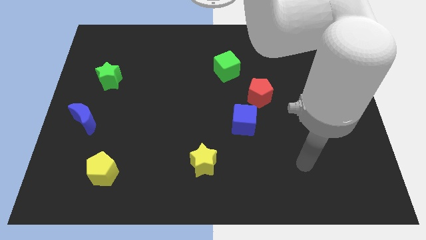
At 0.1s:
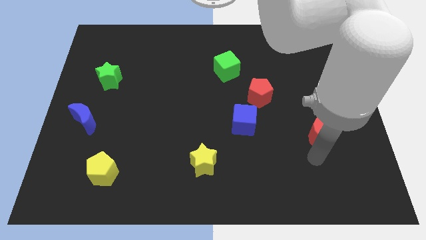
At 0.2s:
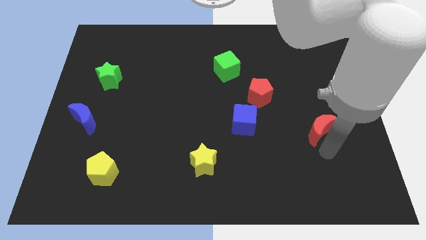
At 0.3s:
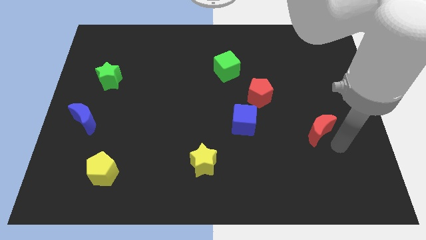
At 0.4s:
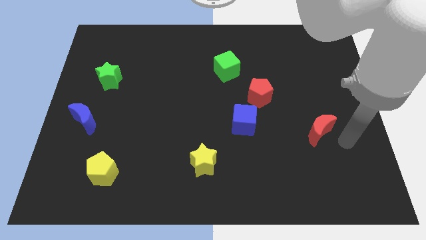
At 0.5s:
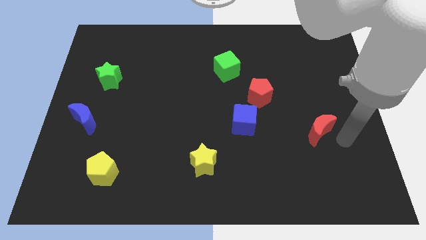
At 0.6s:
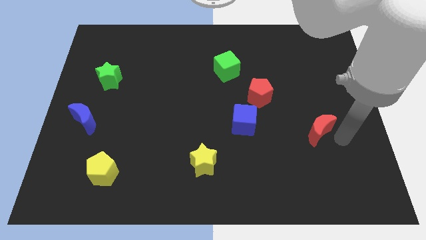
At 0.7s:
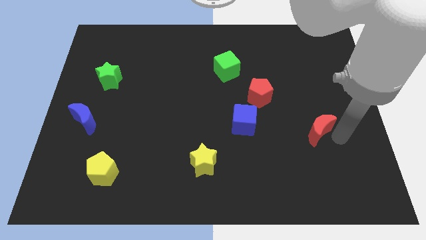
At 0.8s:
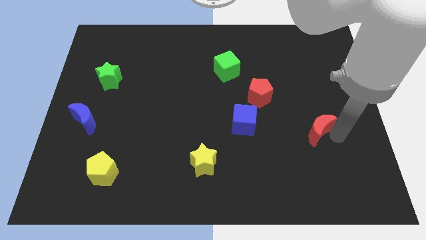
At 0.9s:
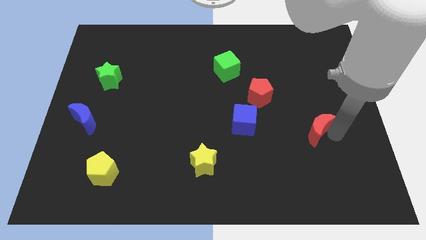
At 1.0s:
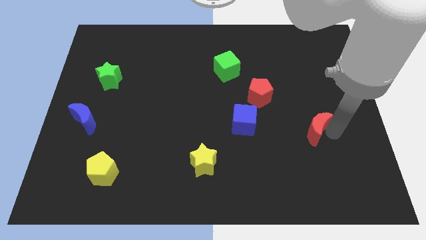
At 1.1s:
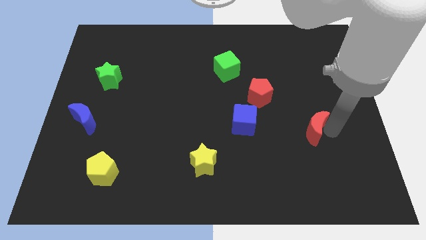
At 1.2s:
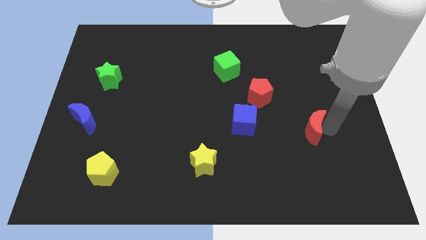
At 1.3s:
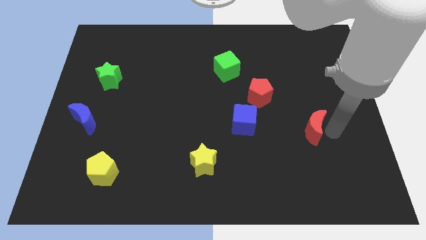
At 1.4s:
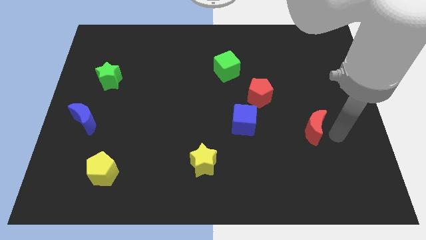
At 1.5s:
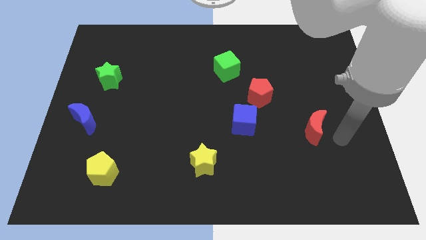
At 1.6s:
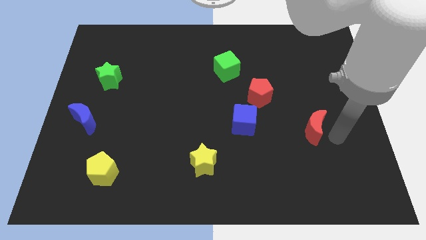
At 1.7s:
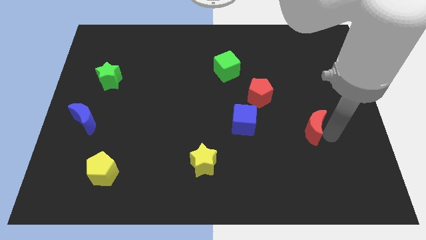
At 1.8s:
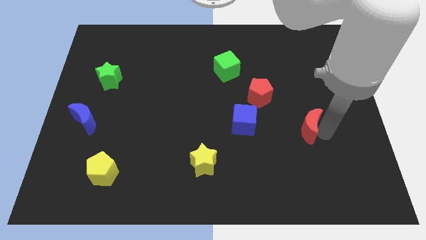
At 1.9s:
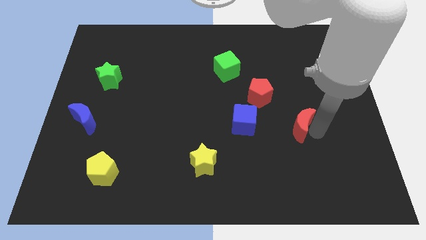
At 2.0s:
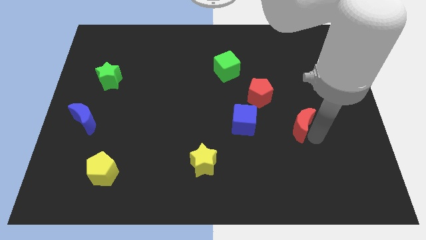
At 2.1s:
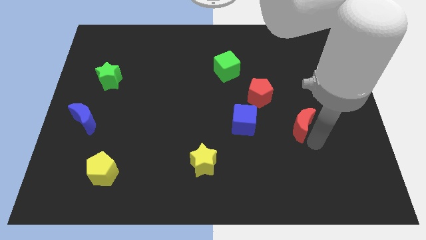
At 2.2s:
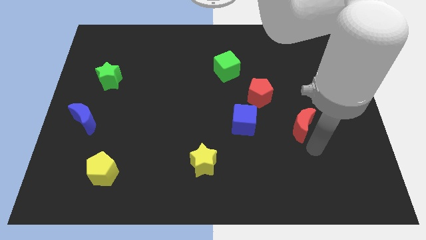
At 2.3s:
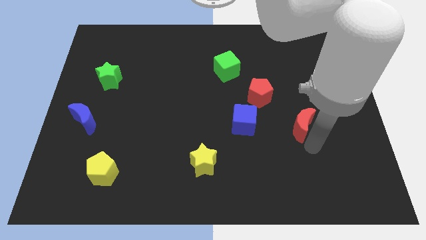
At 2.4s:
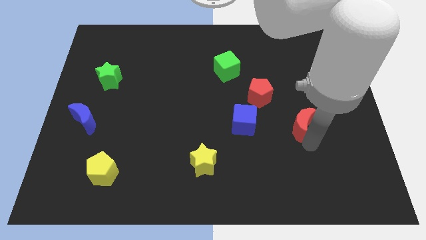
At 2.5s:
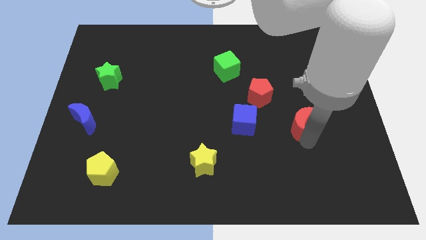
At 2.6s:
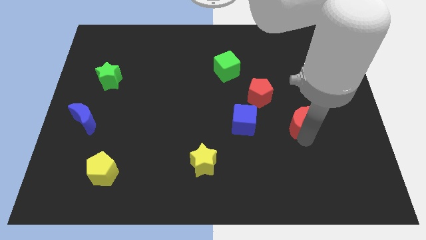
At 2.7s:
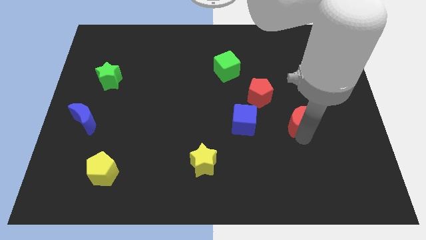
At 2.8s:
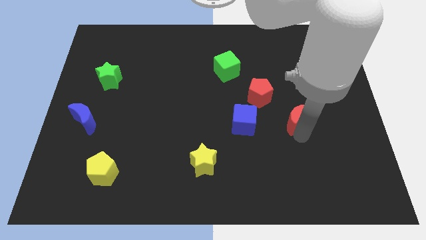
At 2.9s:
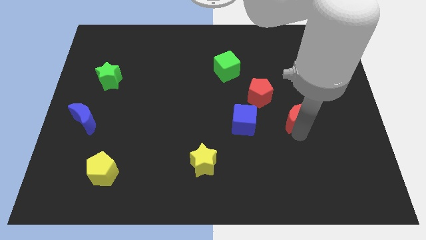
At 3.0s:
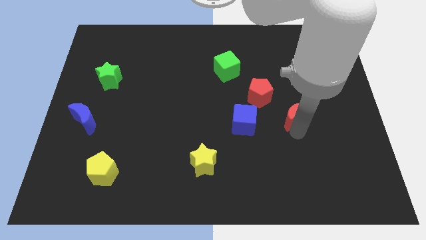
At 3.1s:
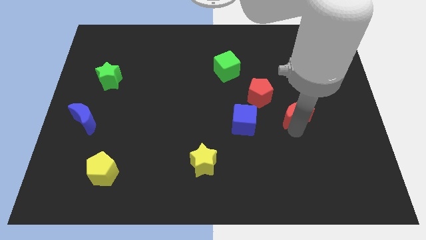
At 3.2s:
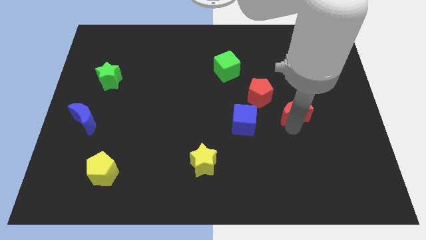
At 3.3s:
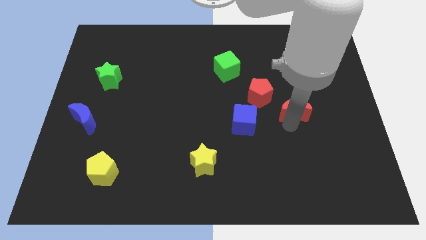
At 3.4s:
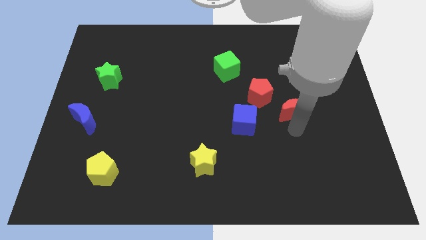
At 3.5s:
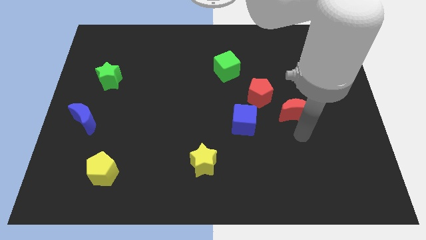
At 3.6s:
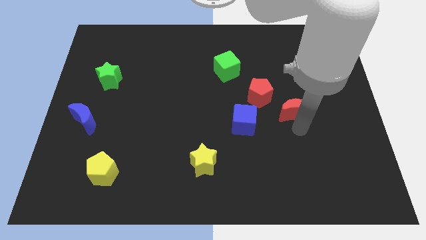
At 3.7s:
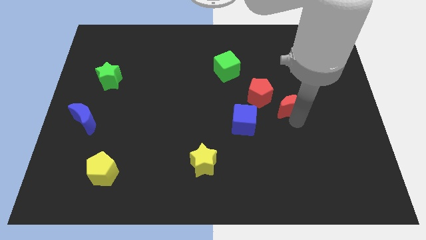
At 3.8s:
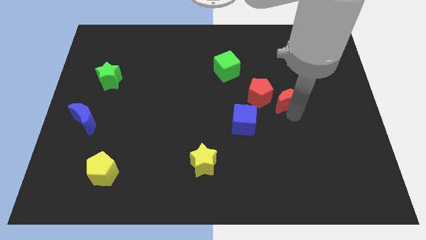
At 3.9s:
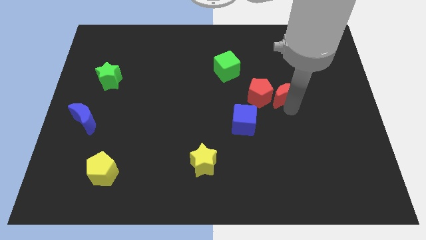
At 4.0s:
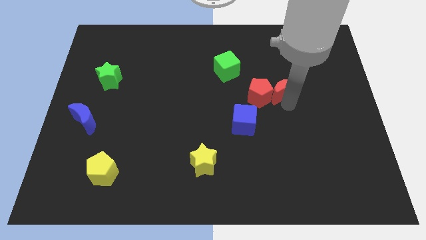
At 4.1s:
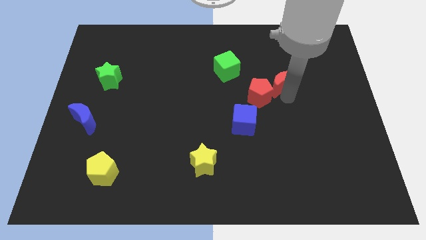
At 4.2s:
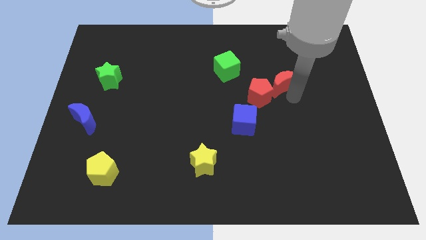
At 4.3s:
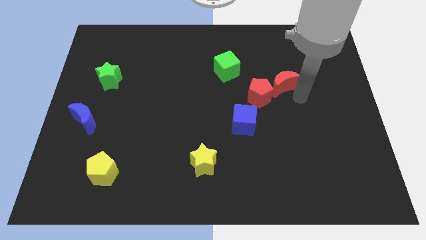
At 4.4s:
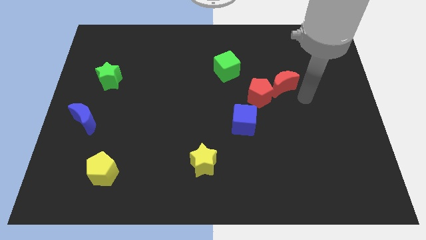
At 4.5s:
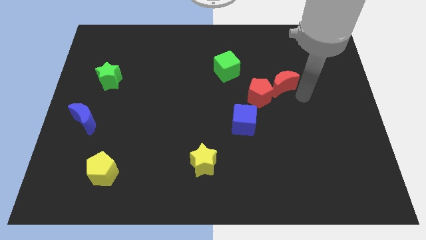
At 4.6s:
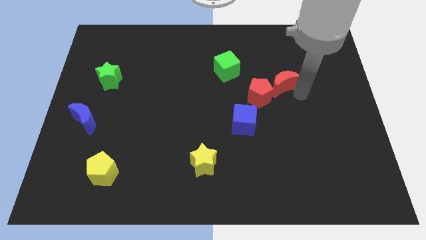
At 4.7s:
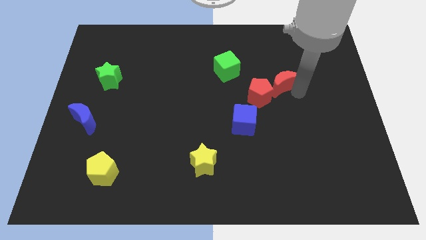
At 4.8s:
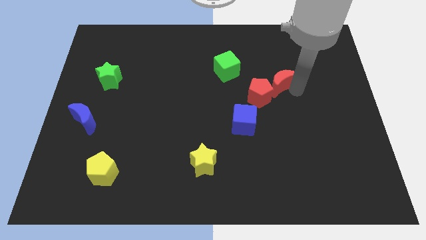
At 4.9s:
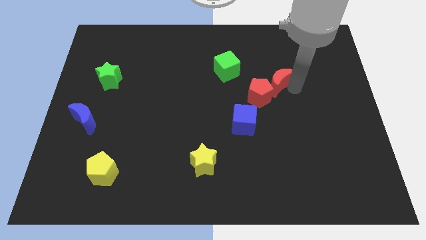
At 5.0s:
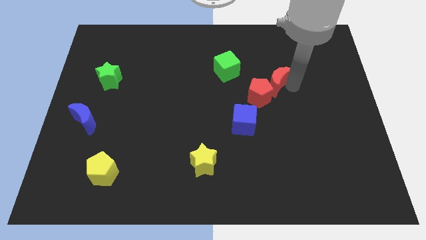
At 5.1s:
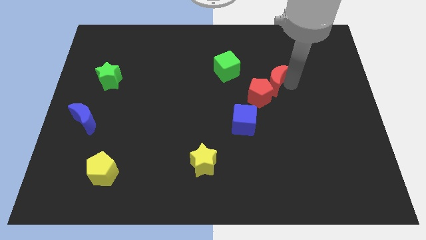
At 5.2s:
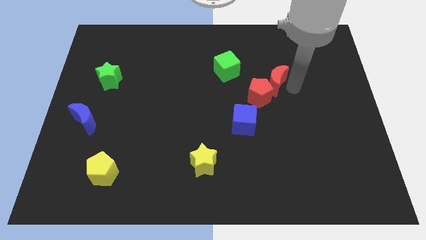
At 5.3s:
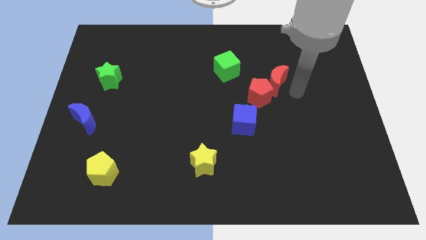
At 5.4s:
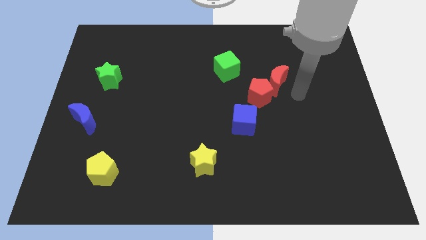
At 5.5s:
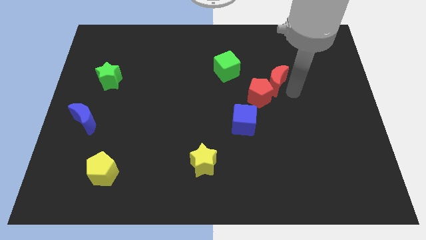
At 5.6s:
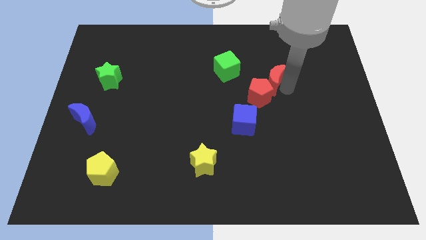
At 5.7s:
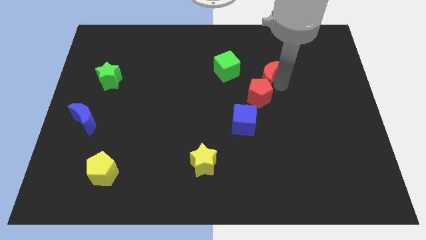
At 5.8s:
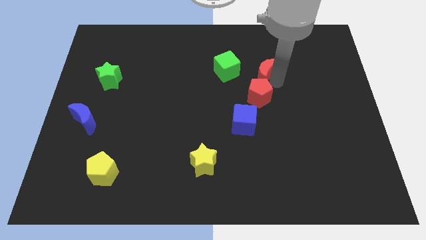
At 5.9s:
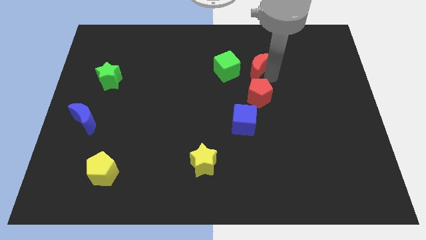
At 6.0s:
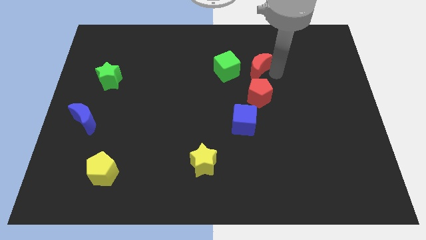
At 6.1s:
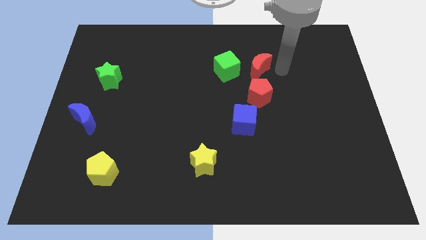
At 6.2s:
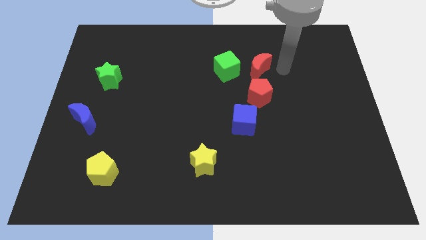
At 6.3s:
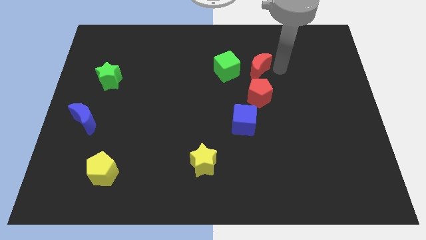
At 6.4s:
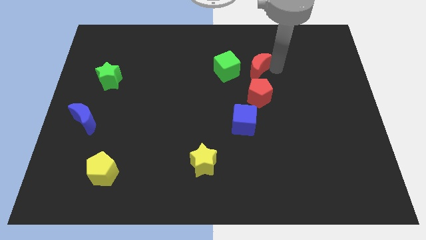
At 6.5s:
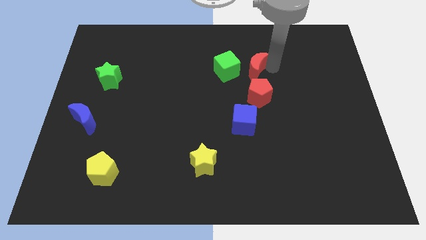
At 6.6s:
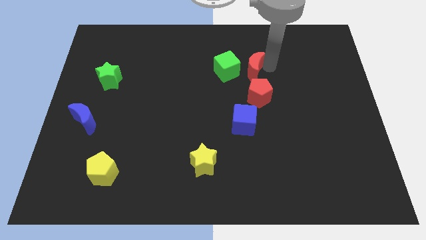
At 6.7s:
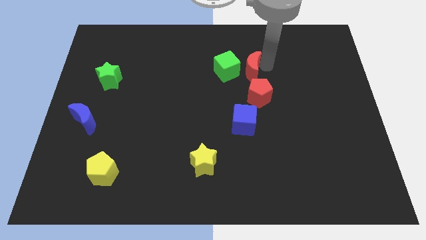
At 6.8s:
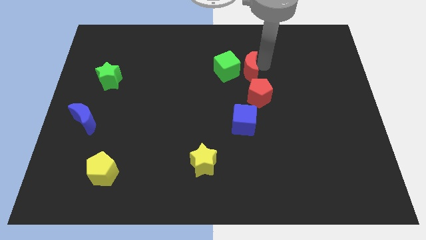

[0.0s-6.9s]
push the red moon towards the green cube
